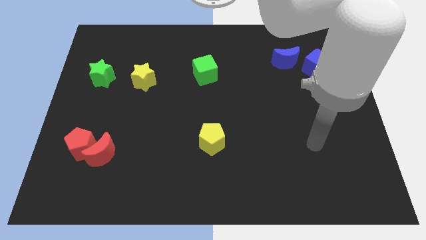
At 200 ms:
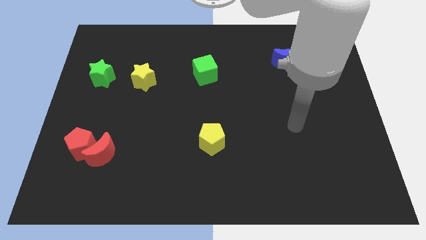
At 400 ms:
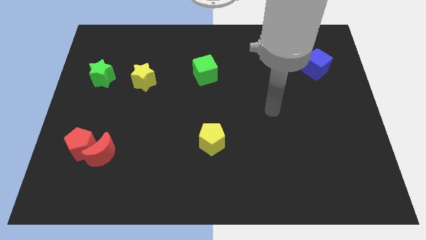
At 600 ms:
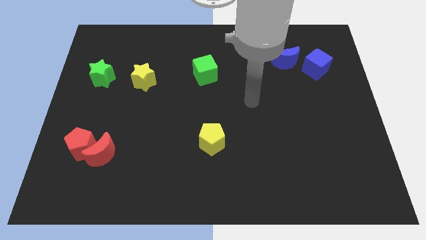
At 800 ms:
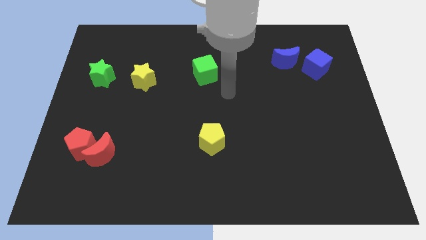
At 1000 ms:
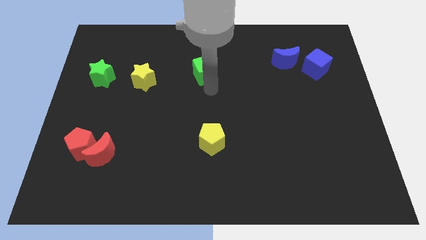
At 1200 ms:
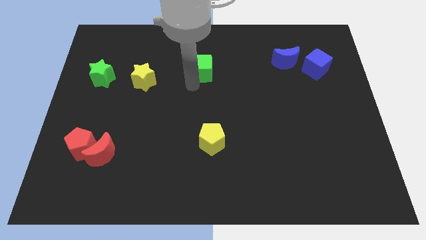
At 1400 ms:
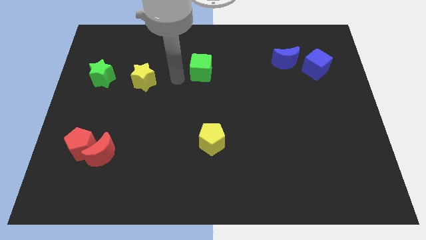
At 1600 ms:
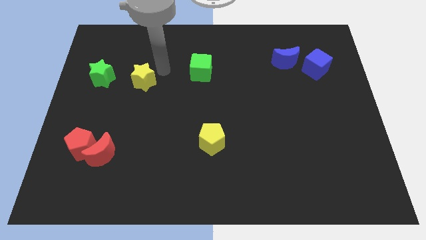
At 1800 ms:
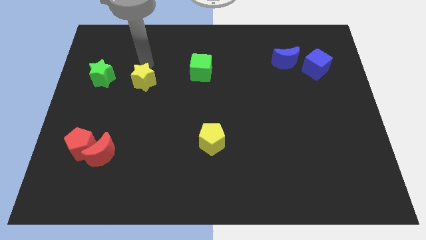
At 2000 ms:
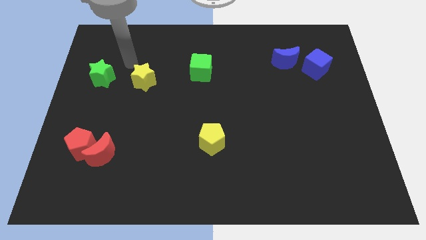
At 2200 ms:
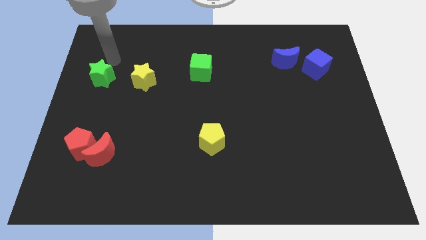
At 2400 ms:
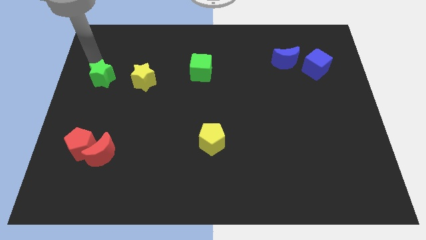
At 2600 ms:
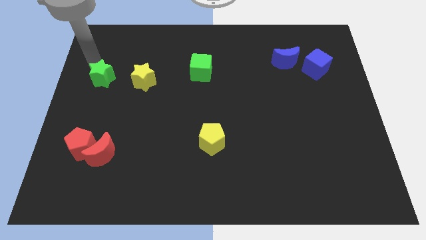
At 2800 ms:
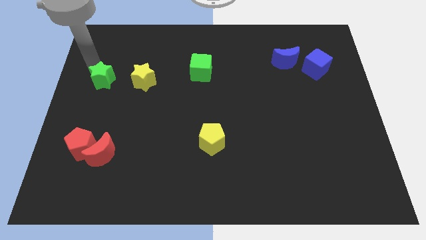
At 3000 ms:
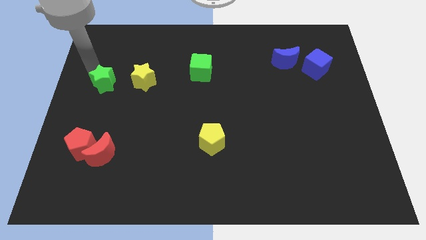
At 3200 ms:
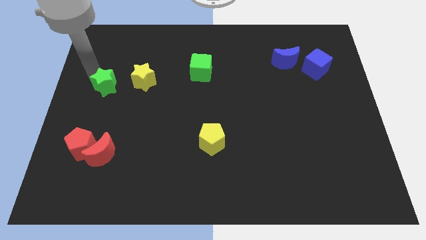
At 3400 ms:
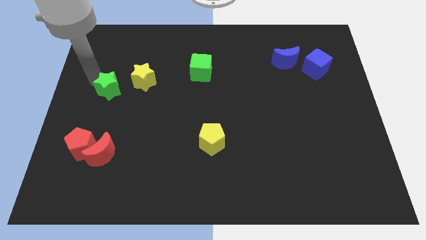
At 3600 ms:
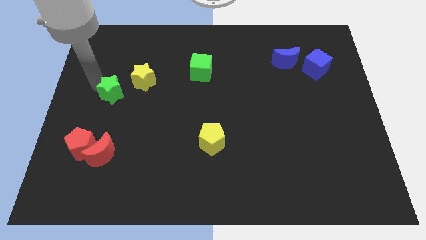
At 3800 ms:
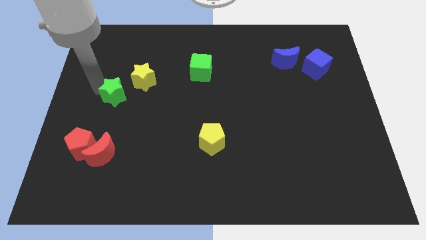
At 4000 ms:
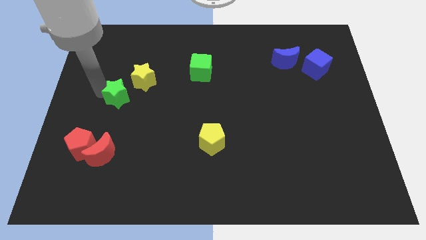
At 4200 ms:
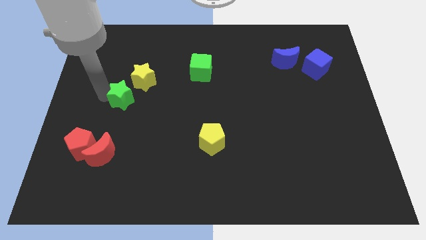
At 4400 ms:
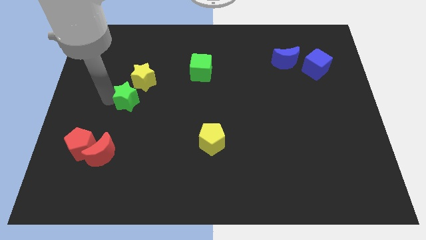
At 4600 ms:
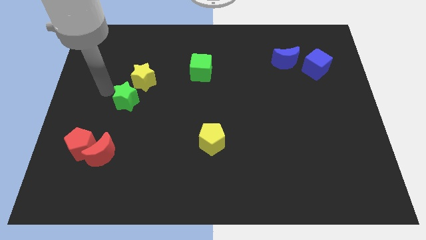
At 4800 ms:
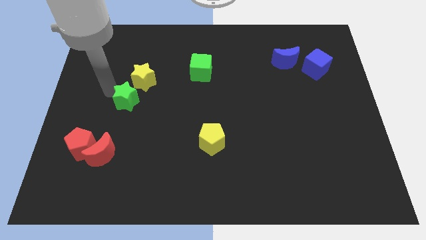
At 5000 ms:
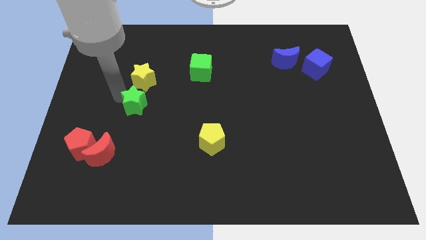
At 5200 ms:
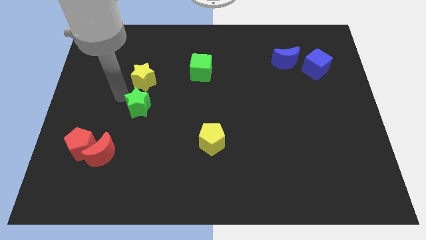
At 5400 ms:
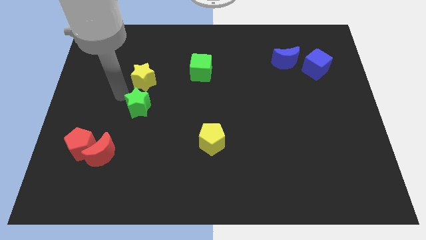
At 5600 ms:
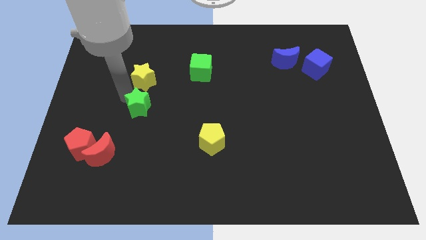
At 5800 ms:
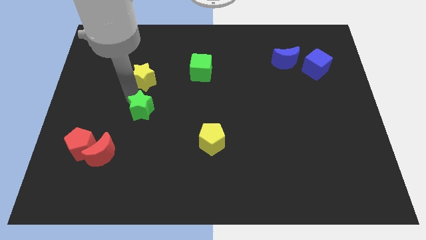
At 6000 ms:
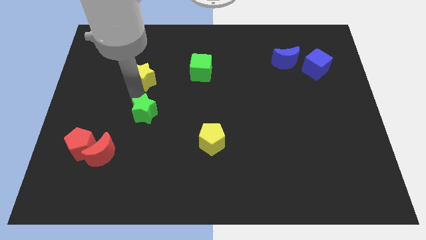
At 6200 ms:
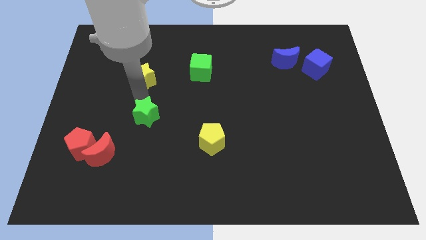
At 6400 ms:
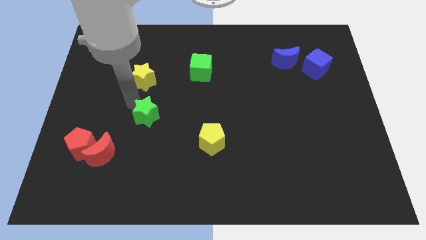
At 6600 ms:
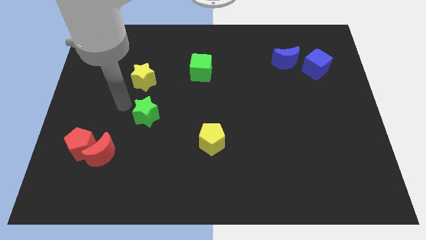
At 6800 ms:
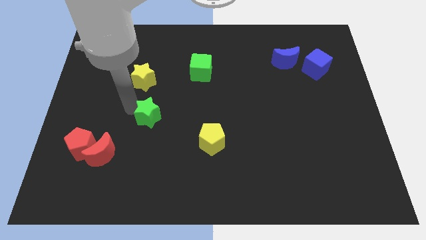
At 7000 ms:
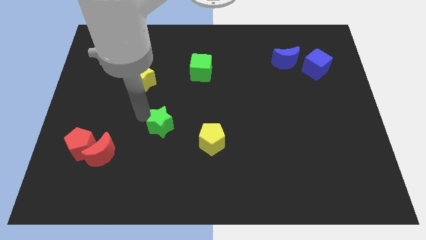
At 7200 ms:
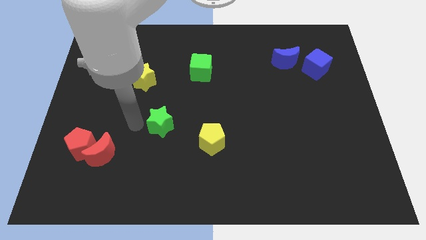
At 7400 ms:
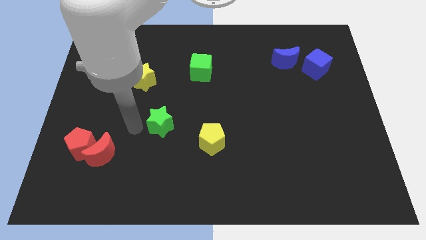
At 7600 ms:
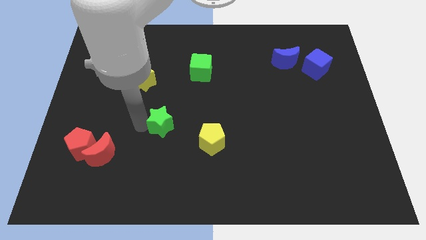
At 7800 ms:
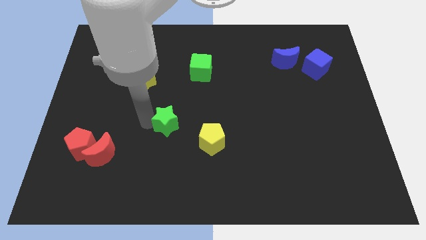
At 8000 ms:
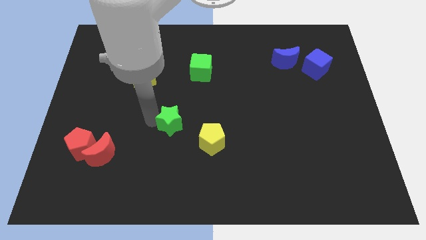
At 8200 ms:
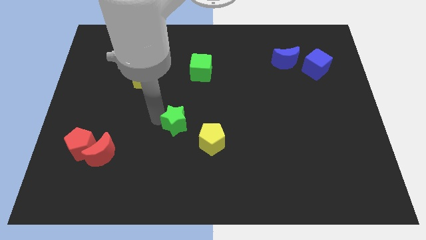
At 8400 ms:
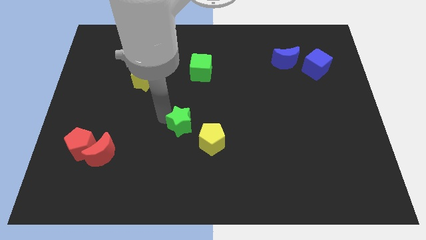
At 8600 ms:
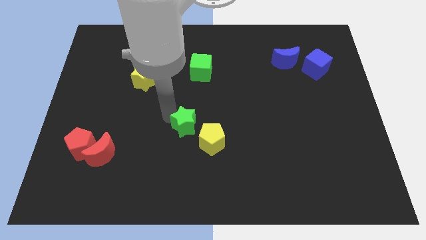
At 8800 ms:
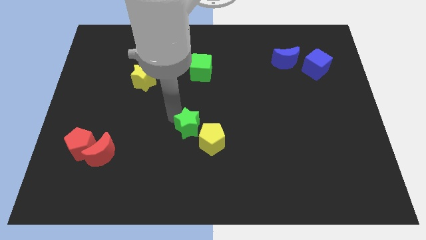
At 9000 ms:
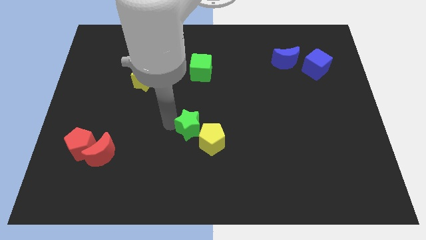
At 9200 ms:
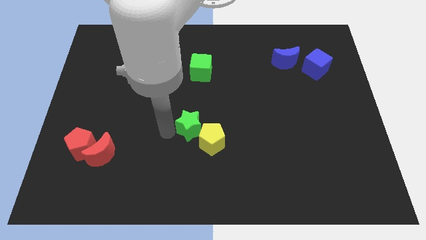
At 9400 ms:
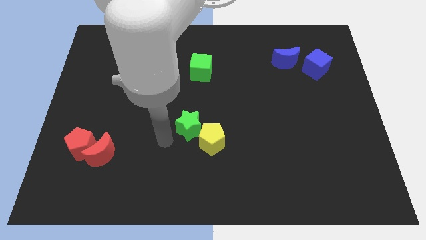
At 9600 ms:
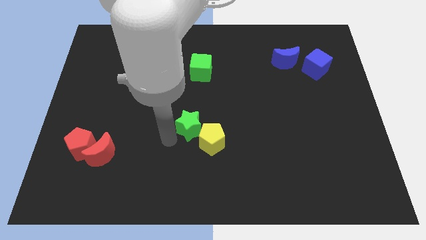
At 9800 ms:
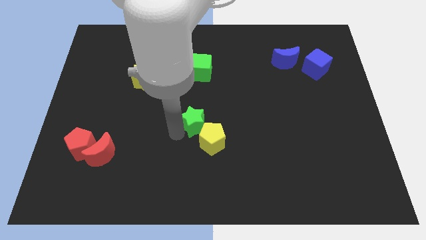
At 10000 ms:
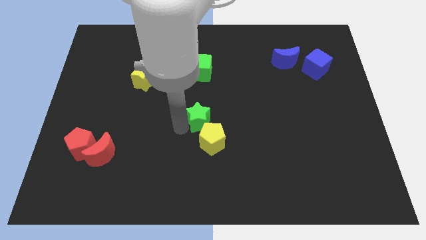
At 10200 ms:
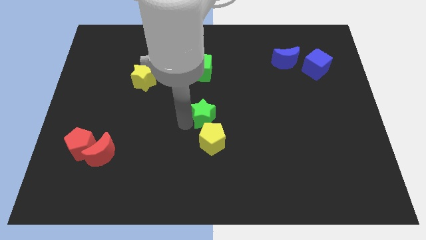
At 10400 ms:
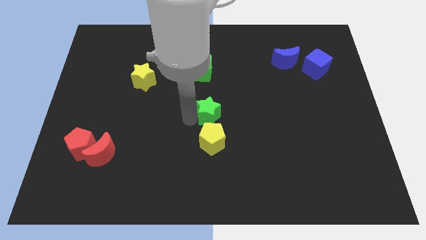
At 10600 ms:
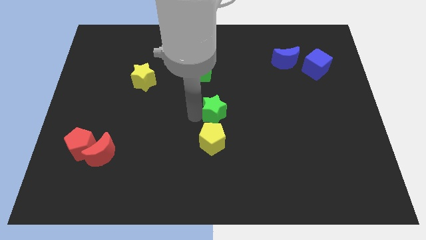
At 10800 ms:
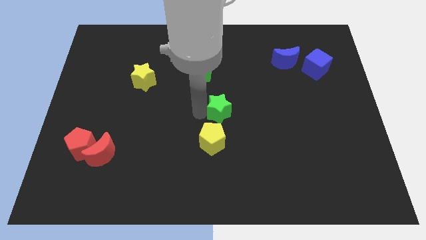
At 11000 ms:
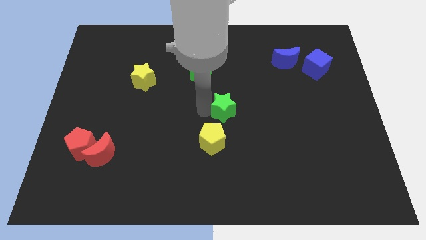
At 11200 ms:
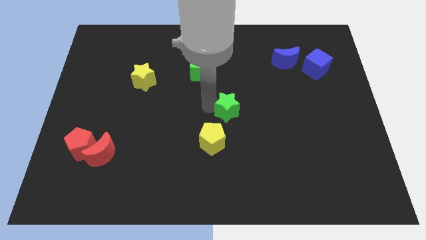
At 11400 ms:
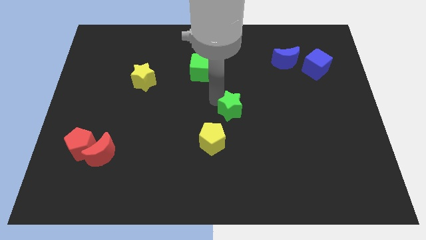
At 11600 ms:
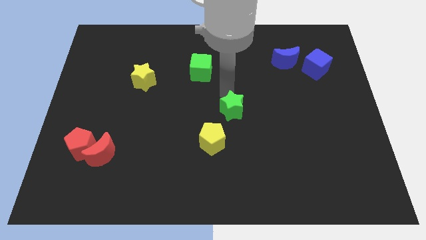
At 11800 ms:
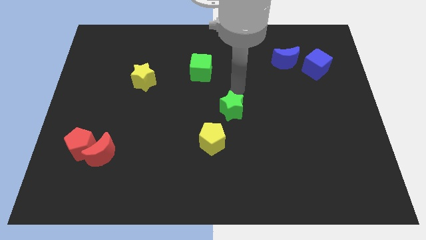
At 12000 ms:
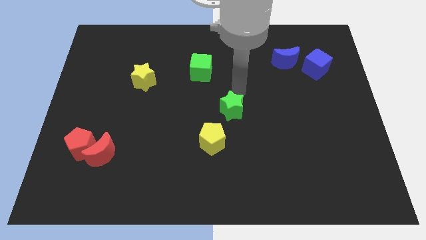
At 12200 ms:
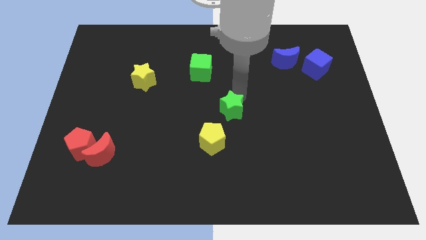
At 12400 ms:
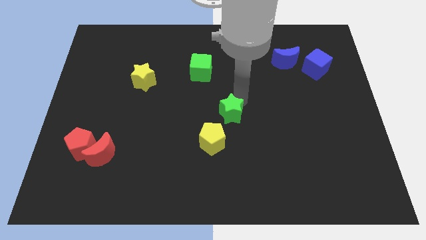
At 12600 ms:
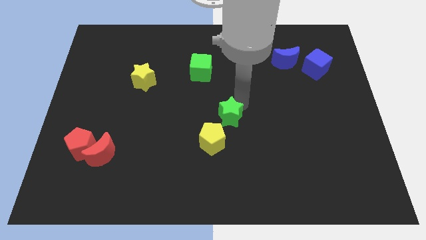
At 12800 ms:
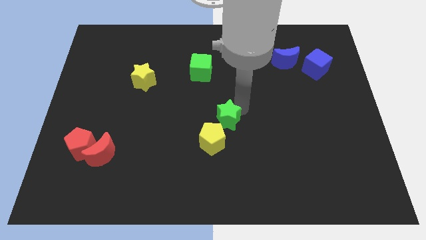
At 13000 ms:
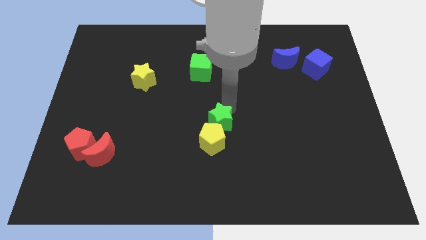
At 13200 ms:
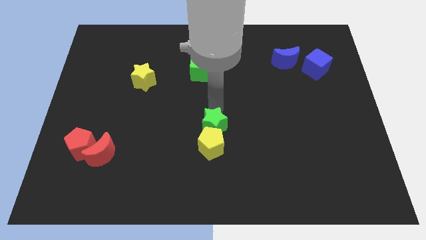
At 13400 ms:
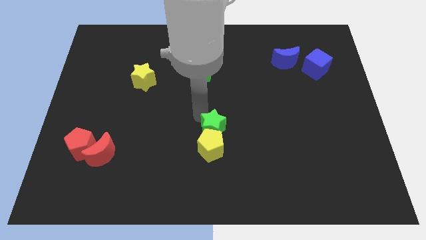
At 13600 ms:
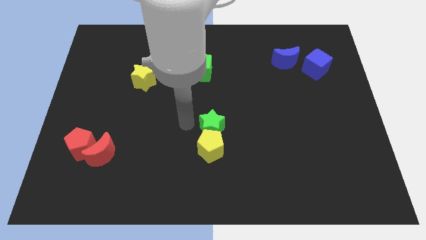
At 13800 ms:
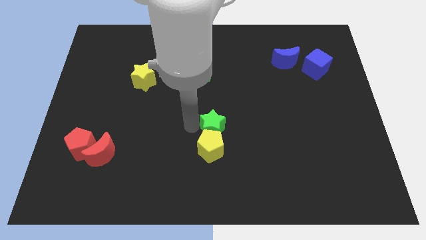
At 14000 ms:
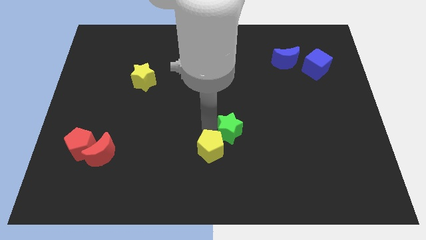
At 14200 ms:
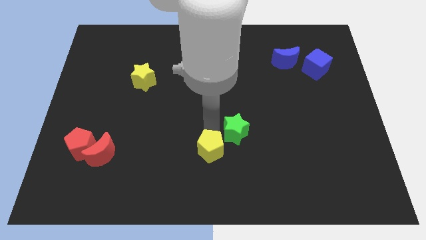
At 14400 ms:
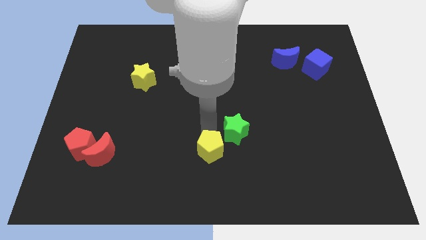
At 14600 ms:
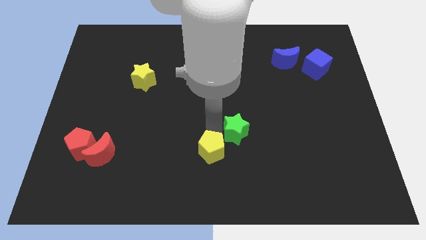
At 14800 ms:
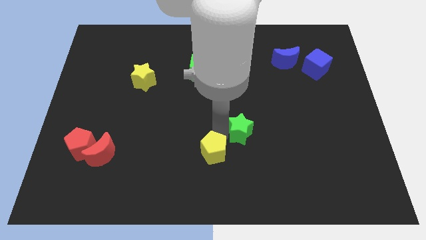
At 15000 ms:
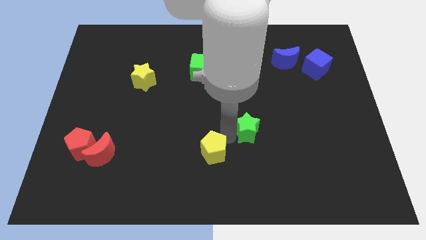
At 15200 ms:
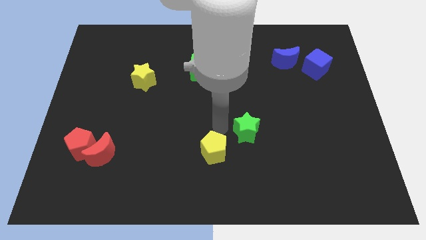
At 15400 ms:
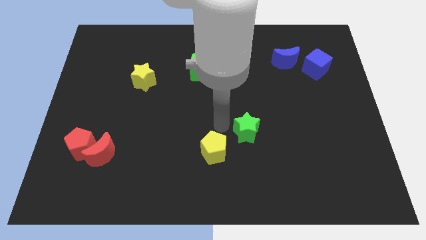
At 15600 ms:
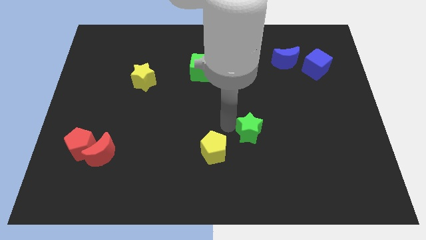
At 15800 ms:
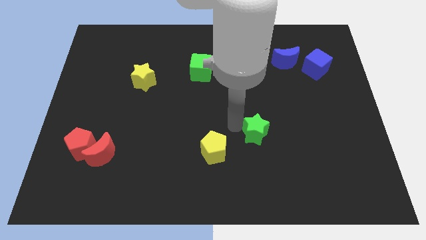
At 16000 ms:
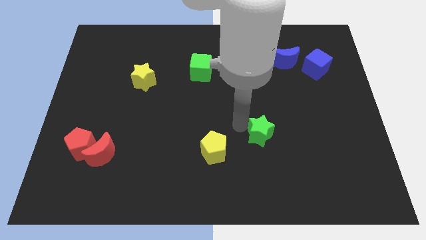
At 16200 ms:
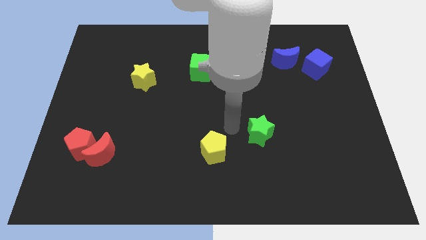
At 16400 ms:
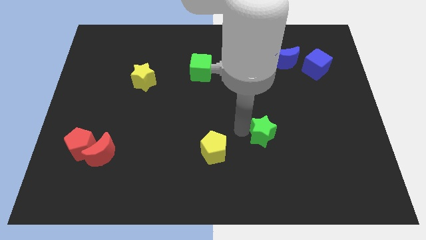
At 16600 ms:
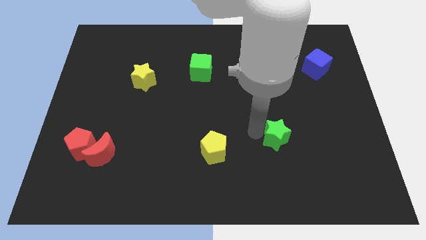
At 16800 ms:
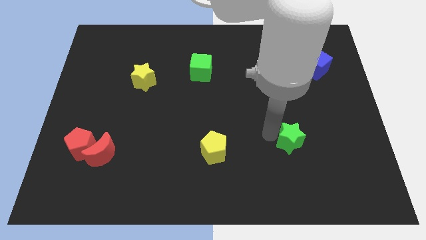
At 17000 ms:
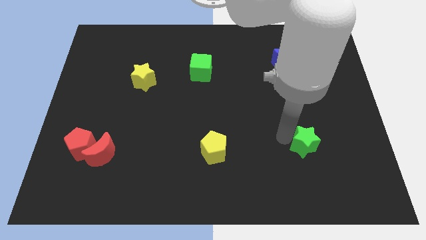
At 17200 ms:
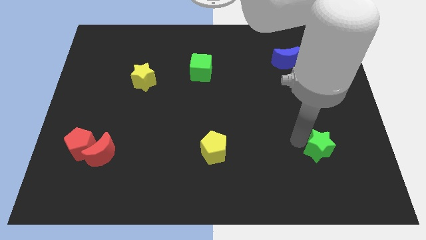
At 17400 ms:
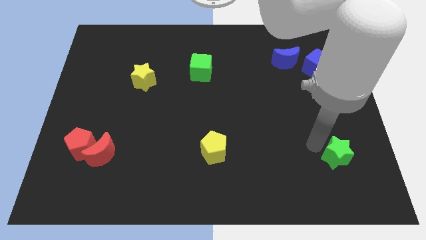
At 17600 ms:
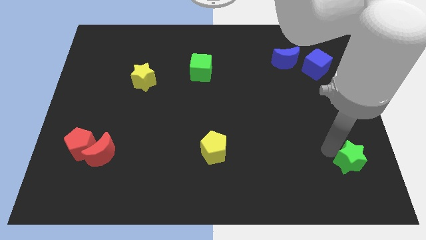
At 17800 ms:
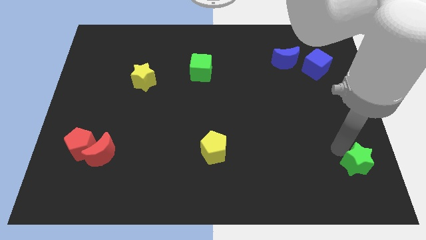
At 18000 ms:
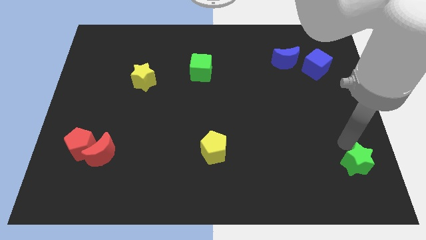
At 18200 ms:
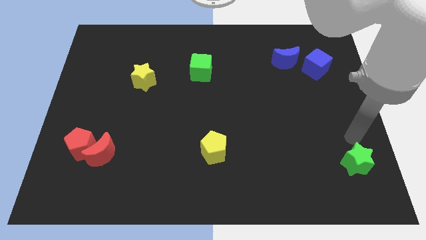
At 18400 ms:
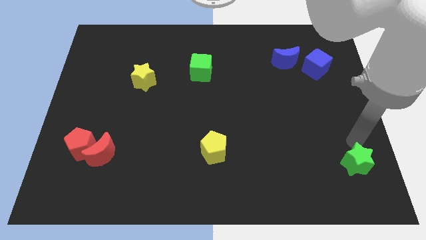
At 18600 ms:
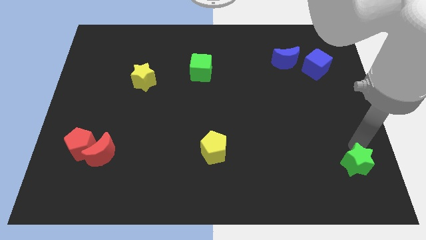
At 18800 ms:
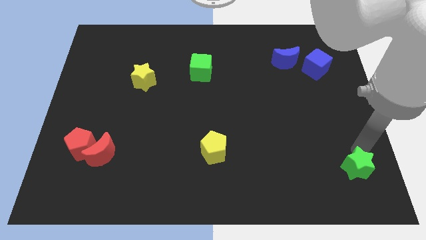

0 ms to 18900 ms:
move the green star to the lower right corner
